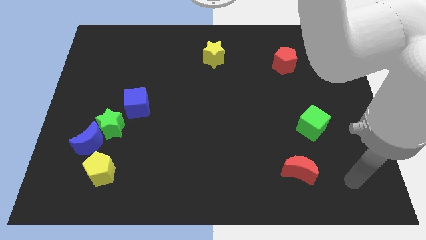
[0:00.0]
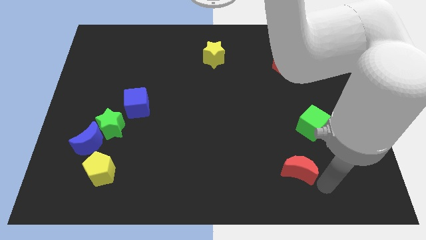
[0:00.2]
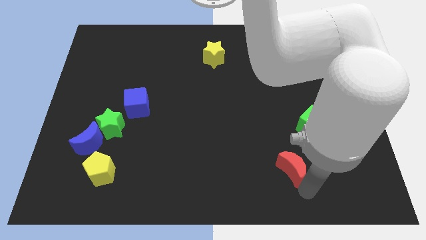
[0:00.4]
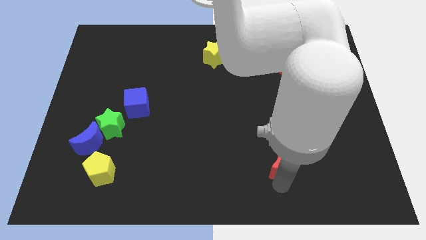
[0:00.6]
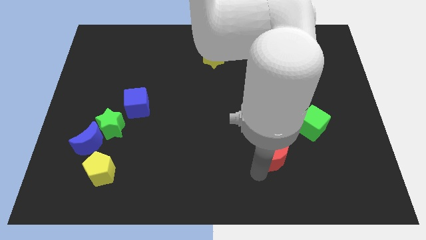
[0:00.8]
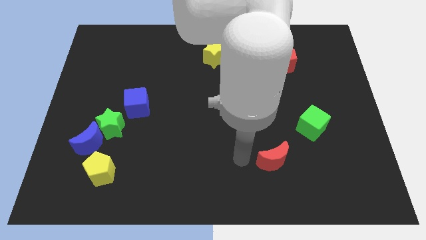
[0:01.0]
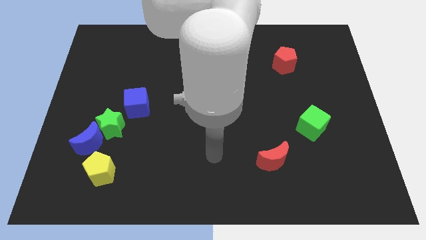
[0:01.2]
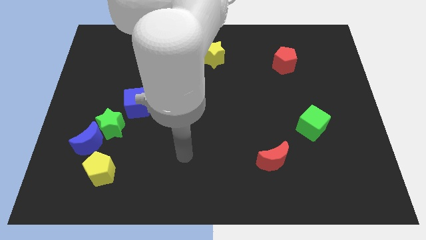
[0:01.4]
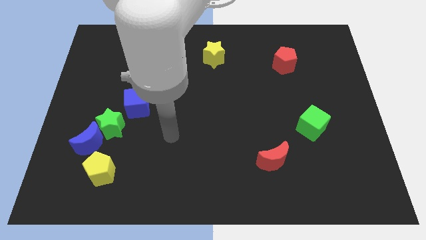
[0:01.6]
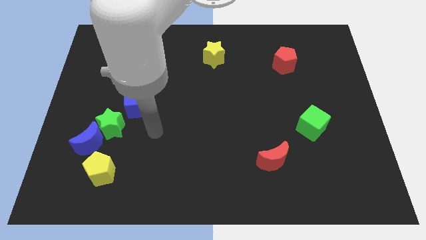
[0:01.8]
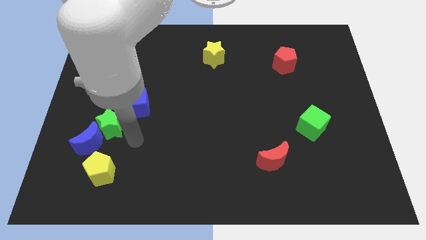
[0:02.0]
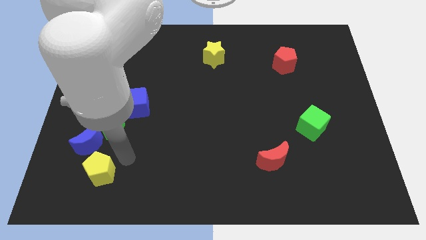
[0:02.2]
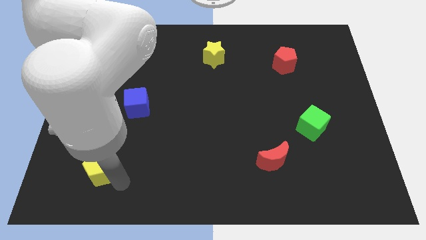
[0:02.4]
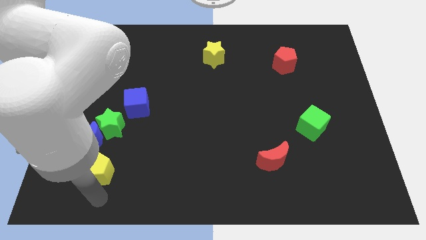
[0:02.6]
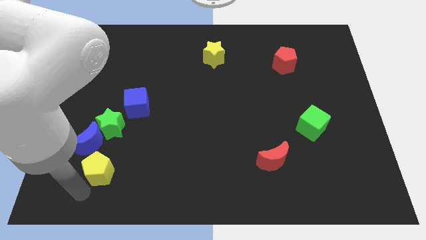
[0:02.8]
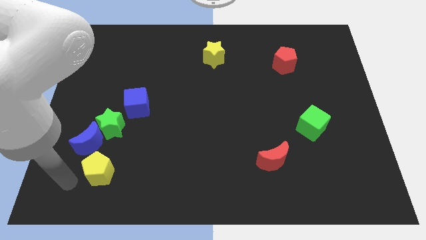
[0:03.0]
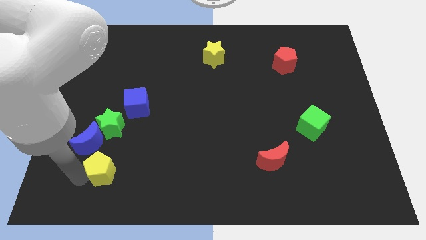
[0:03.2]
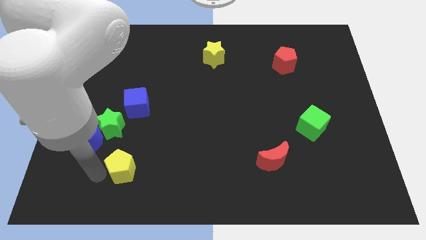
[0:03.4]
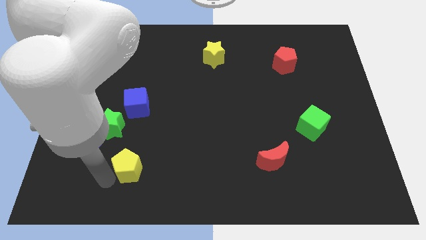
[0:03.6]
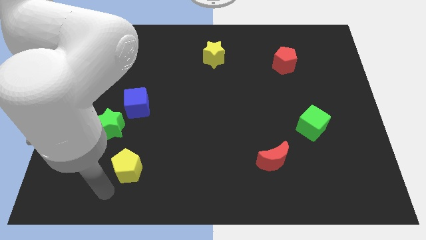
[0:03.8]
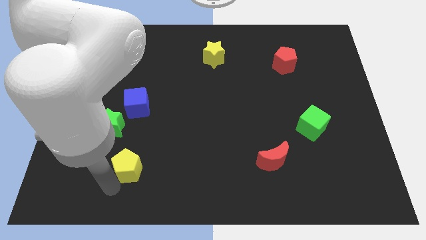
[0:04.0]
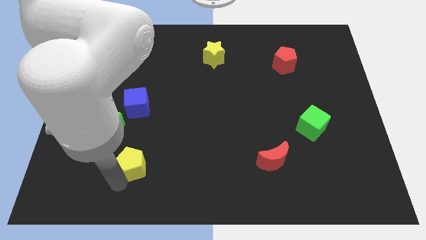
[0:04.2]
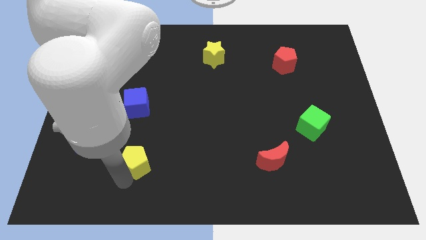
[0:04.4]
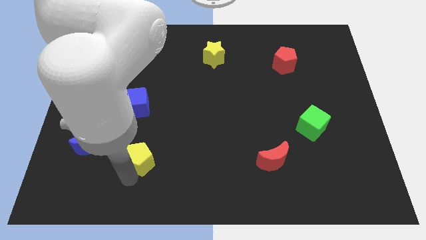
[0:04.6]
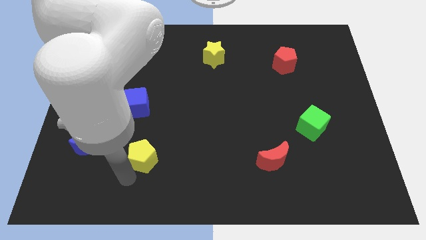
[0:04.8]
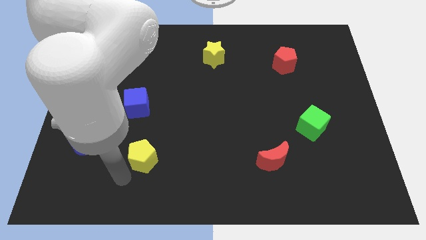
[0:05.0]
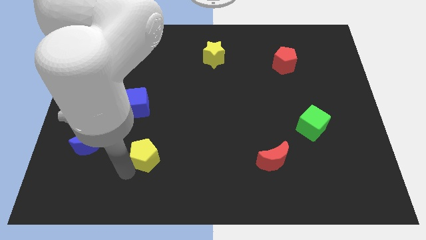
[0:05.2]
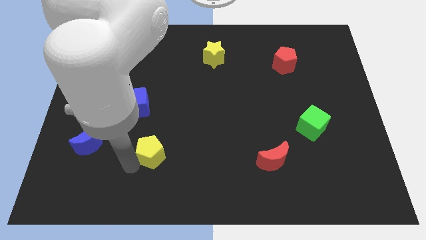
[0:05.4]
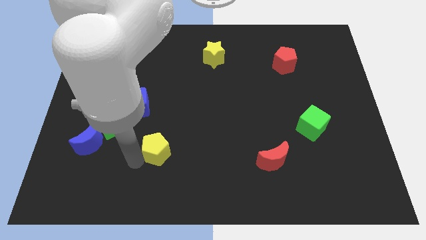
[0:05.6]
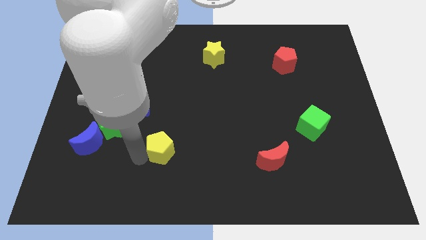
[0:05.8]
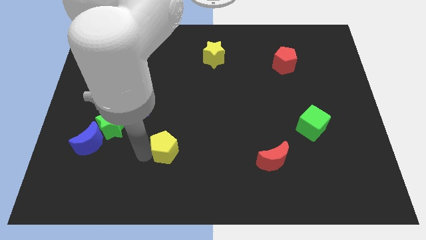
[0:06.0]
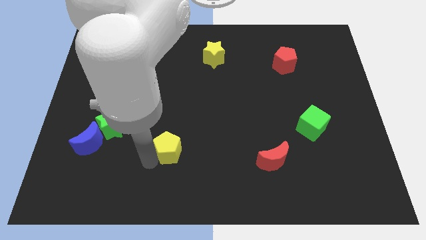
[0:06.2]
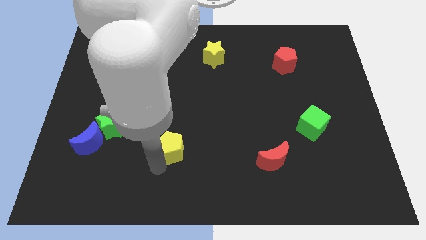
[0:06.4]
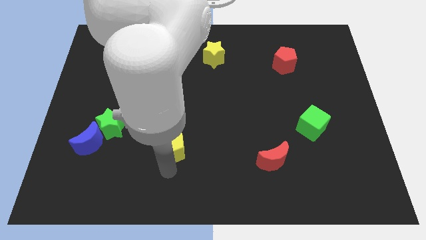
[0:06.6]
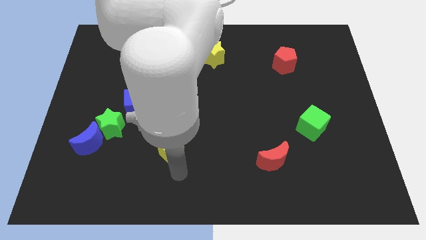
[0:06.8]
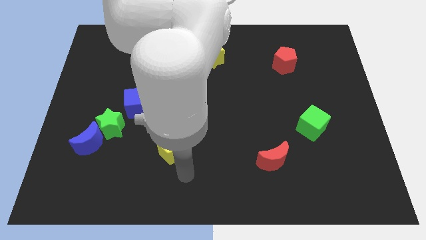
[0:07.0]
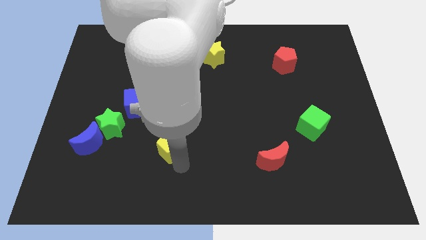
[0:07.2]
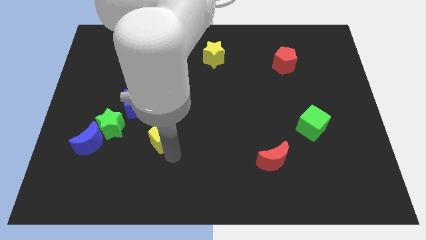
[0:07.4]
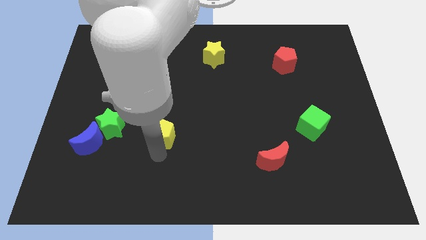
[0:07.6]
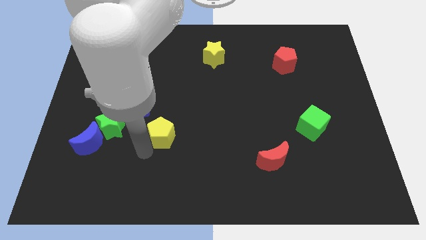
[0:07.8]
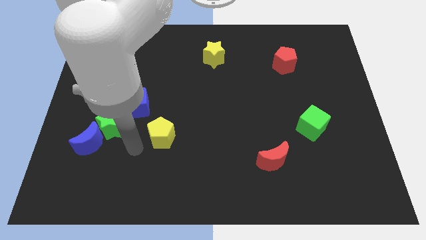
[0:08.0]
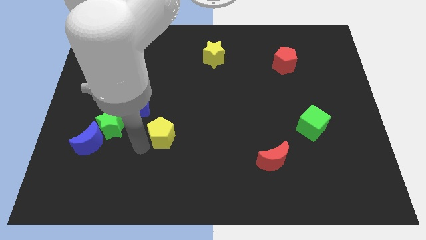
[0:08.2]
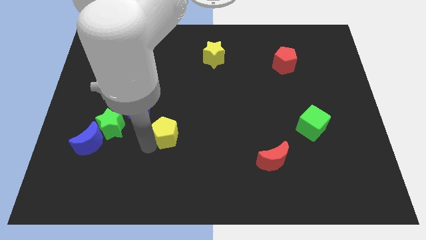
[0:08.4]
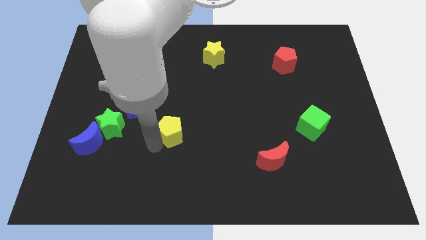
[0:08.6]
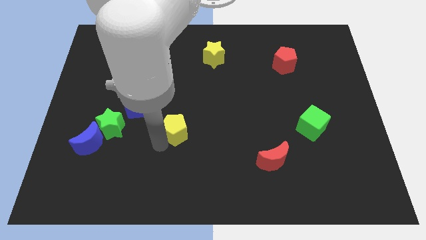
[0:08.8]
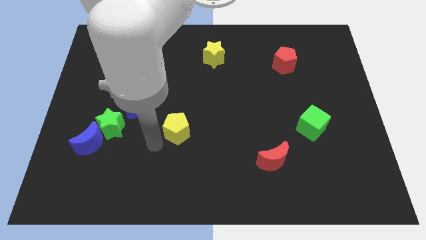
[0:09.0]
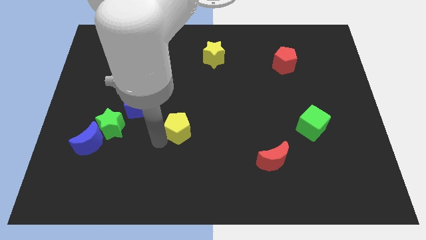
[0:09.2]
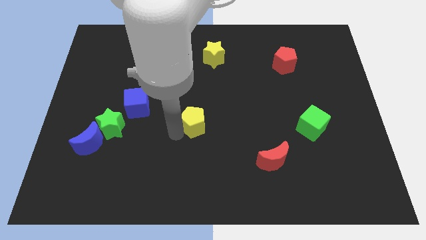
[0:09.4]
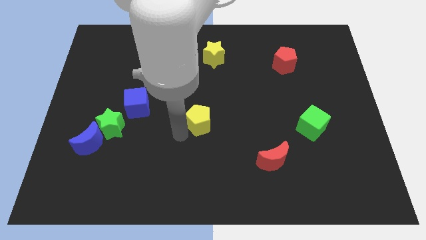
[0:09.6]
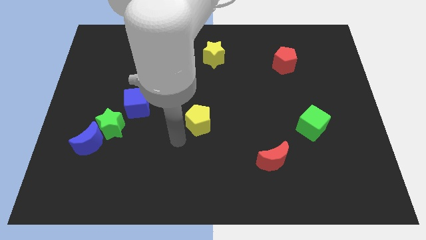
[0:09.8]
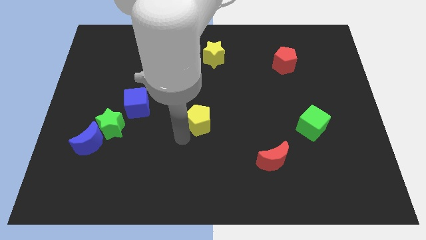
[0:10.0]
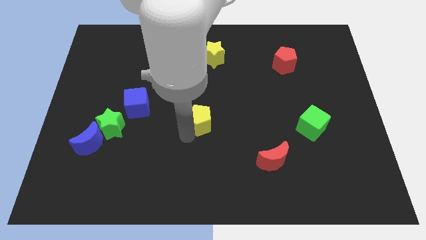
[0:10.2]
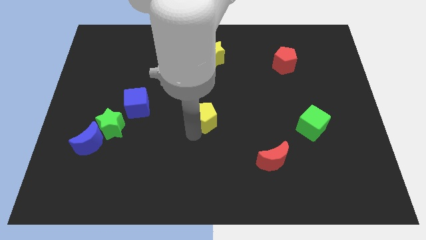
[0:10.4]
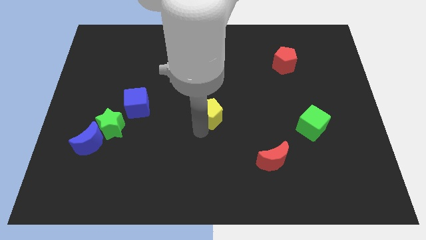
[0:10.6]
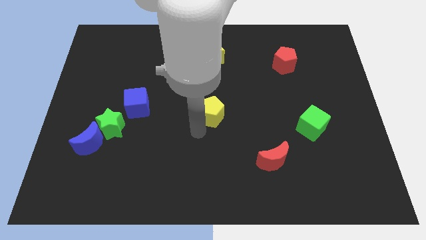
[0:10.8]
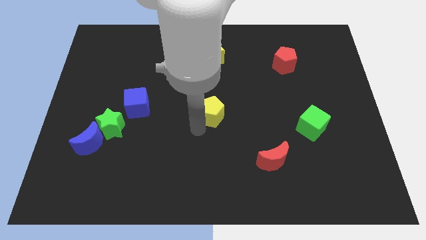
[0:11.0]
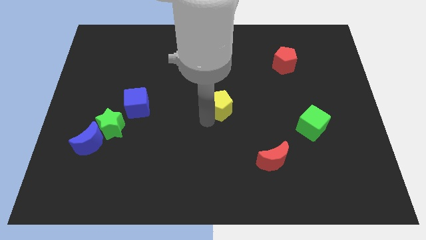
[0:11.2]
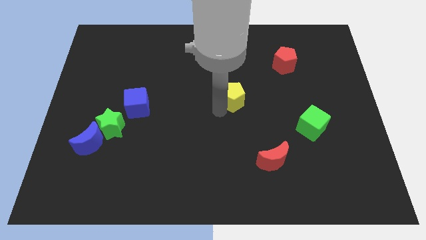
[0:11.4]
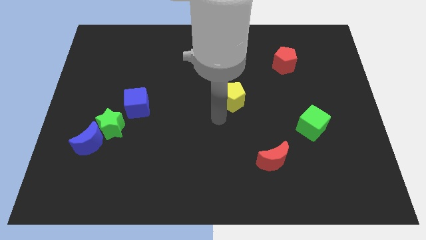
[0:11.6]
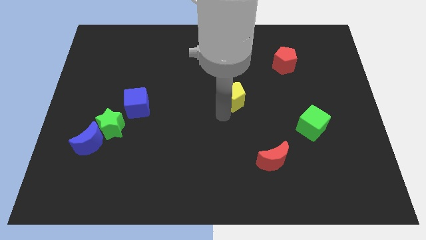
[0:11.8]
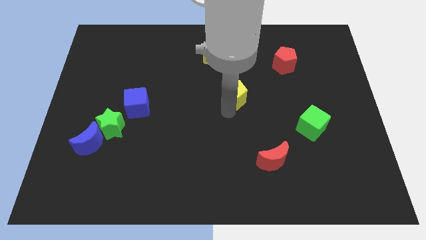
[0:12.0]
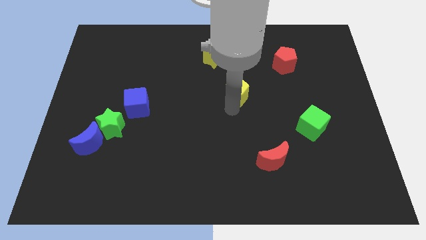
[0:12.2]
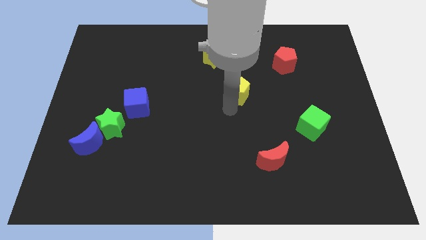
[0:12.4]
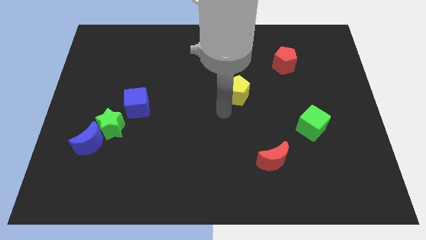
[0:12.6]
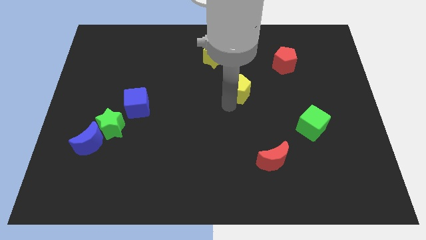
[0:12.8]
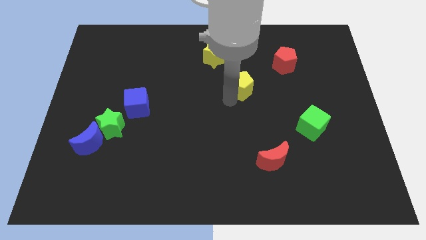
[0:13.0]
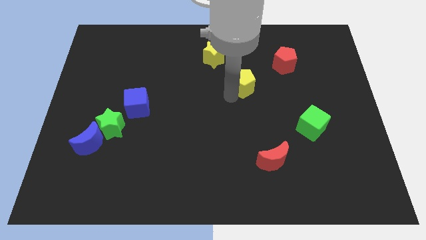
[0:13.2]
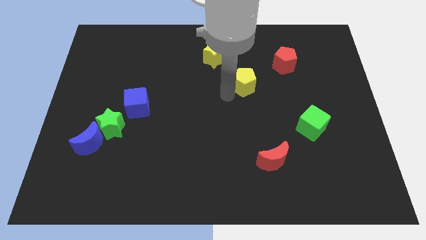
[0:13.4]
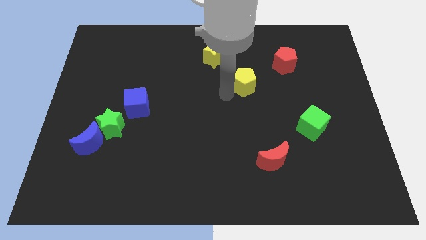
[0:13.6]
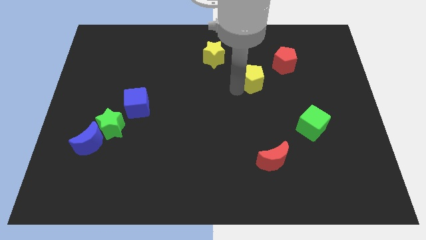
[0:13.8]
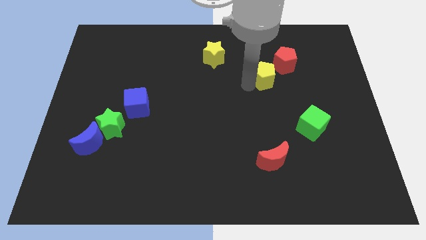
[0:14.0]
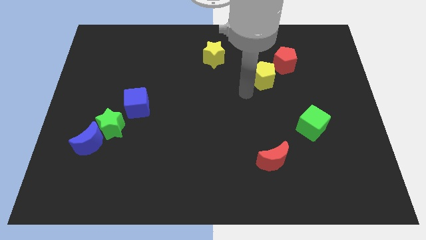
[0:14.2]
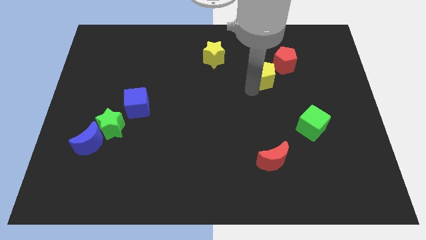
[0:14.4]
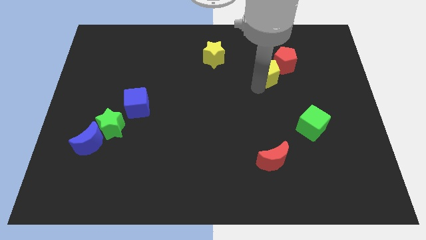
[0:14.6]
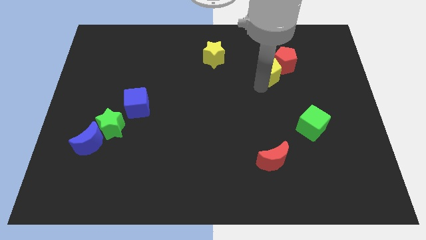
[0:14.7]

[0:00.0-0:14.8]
move the yellow pentagon to the red pentagon
